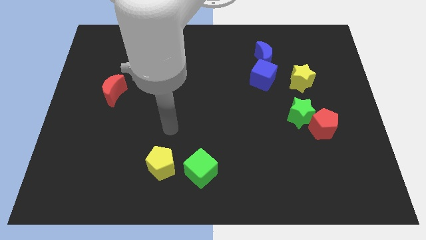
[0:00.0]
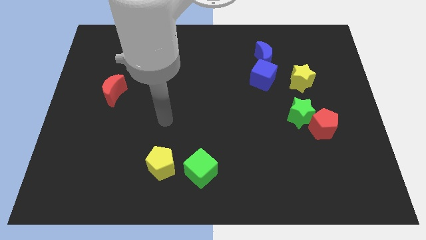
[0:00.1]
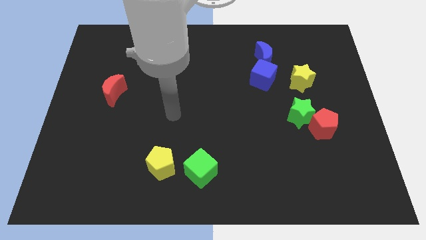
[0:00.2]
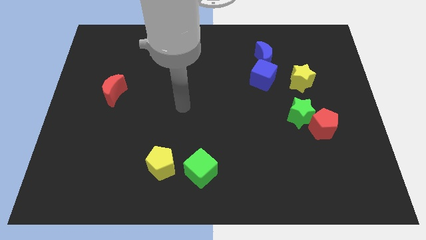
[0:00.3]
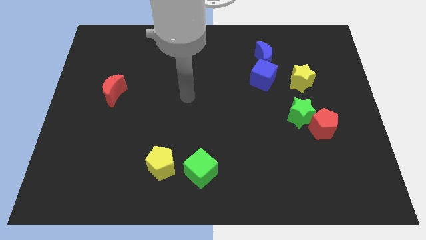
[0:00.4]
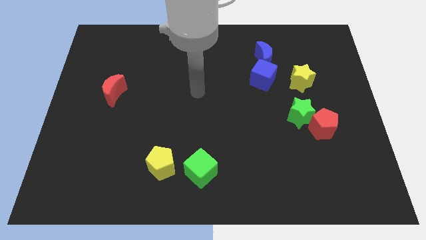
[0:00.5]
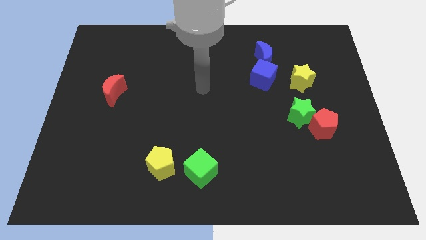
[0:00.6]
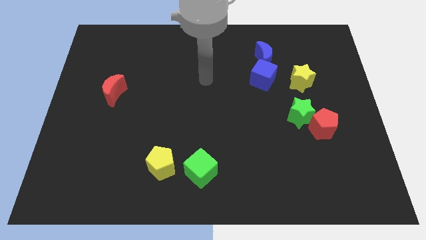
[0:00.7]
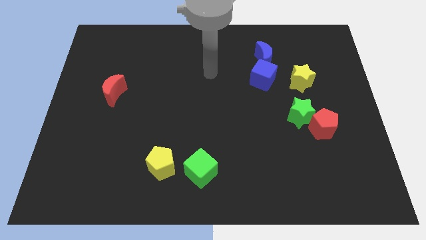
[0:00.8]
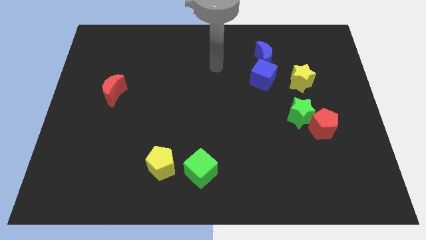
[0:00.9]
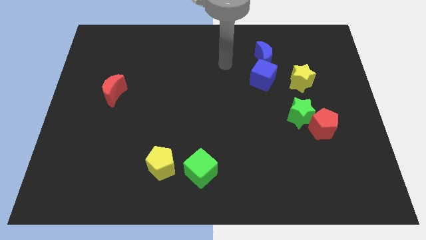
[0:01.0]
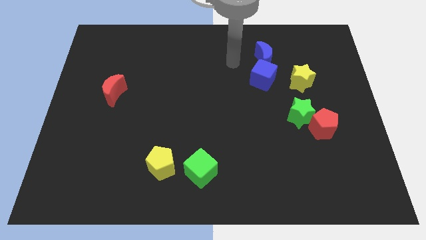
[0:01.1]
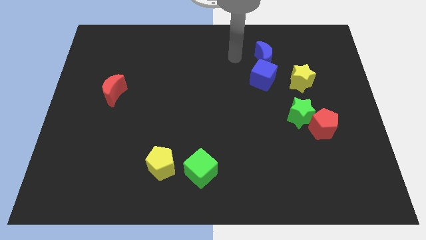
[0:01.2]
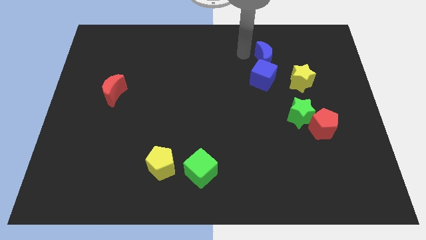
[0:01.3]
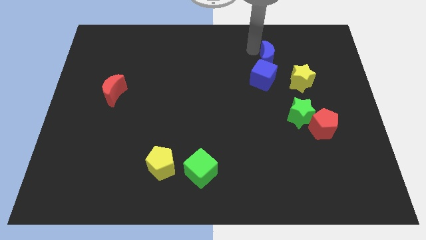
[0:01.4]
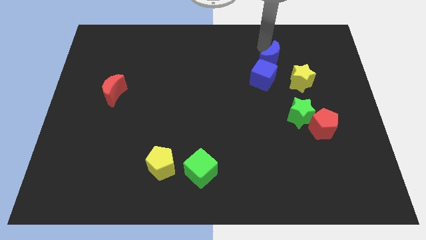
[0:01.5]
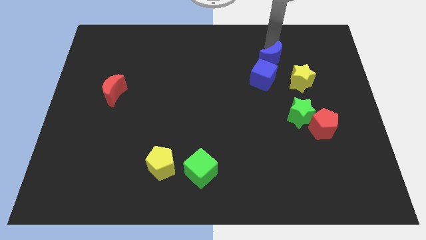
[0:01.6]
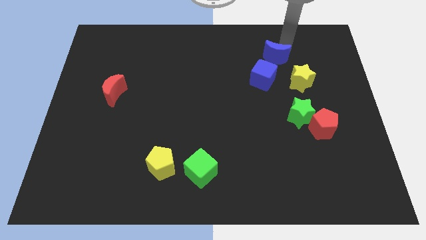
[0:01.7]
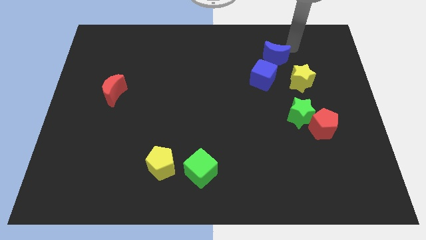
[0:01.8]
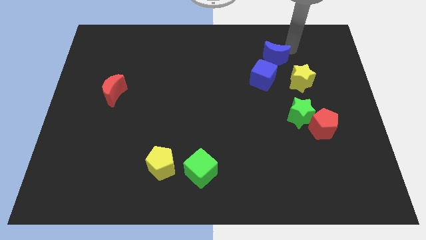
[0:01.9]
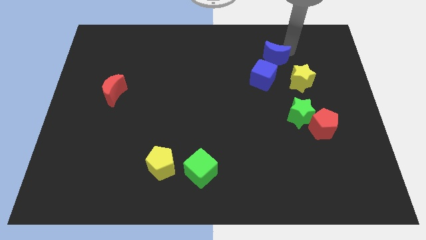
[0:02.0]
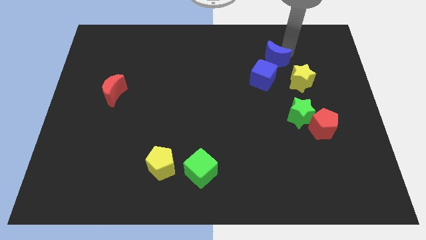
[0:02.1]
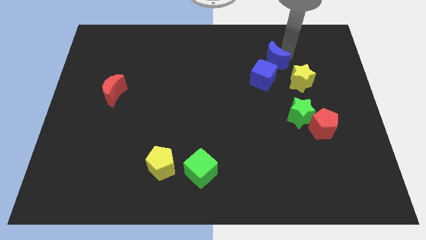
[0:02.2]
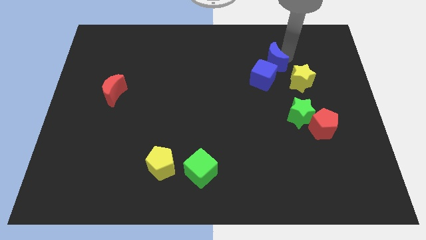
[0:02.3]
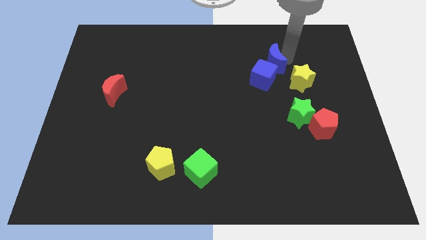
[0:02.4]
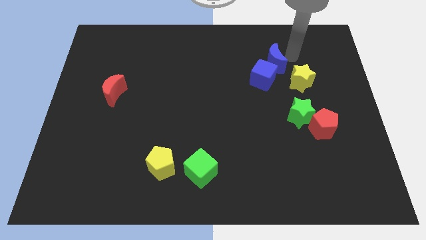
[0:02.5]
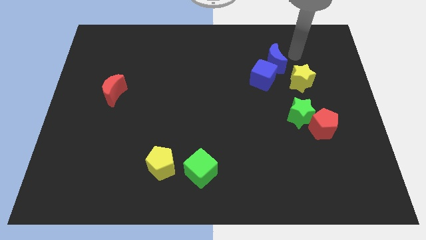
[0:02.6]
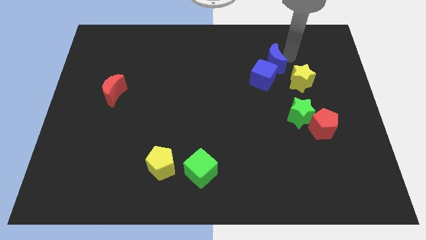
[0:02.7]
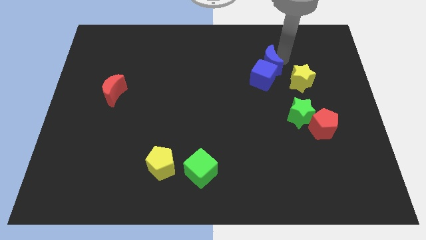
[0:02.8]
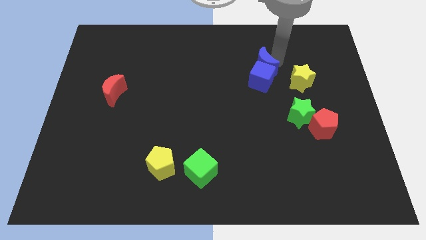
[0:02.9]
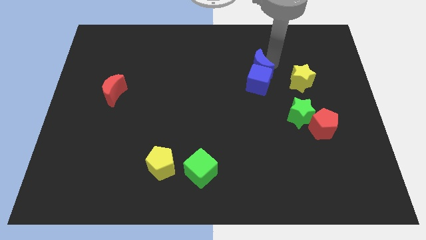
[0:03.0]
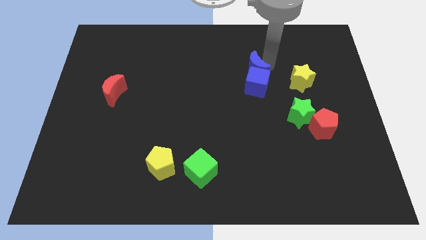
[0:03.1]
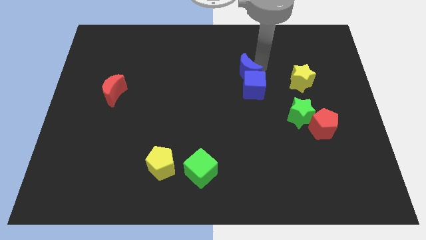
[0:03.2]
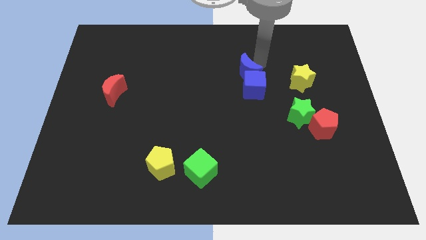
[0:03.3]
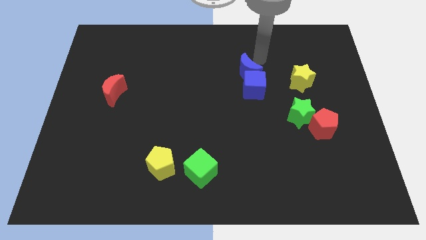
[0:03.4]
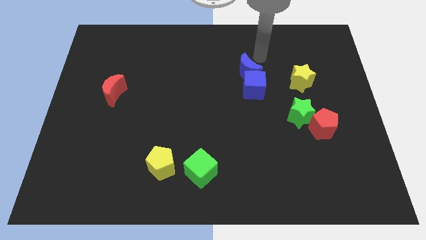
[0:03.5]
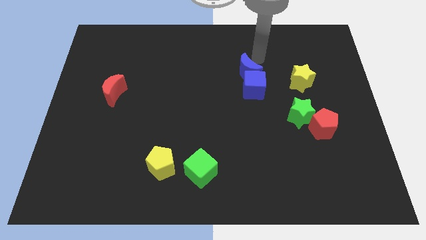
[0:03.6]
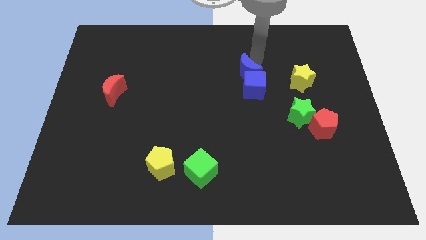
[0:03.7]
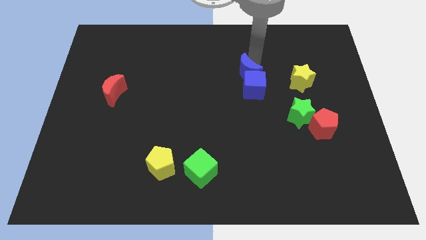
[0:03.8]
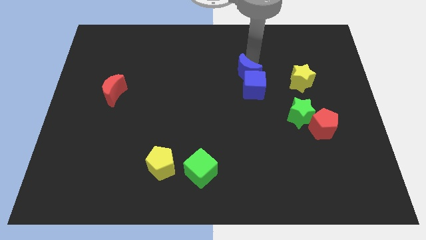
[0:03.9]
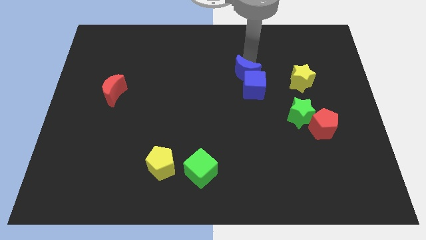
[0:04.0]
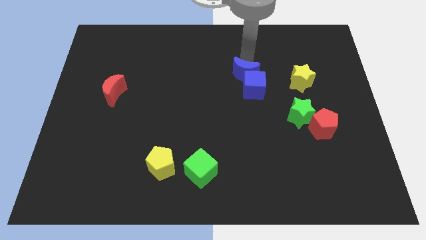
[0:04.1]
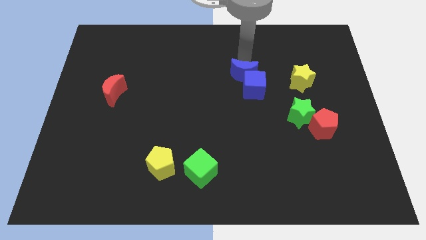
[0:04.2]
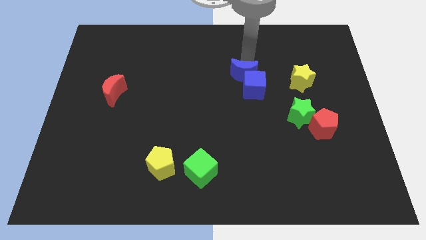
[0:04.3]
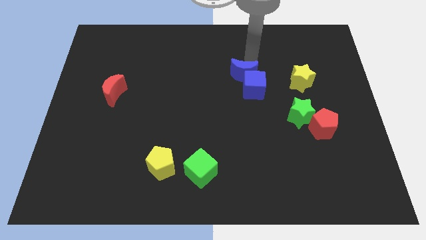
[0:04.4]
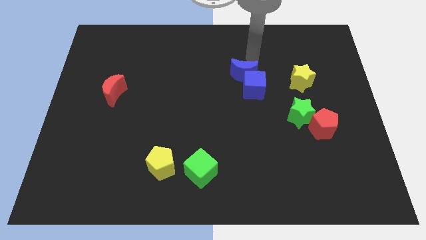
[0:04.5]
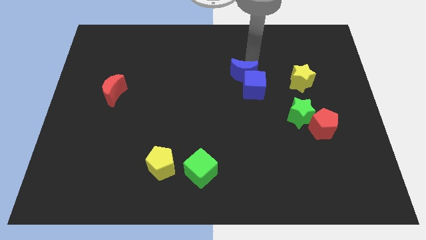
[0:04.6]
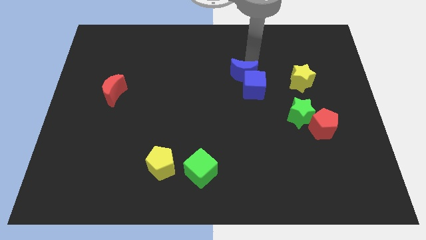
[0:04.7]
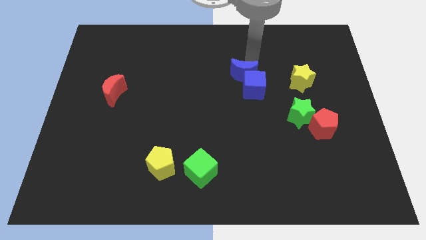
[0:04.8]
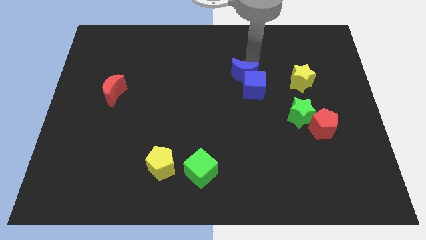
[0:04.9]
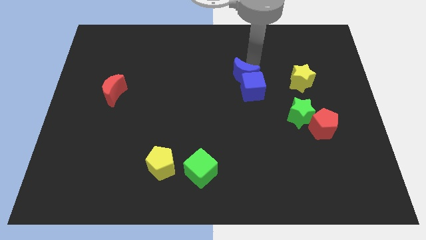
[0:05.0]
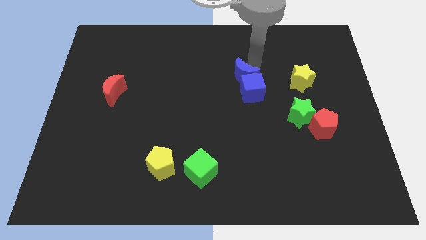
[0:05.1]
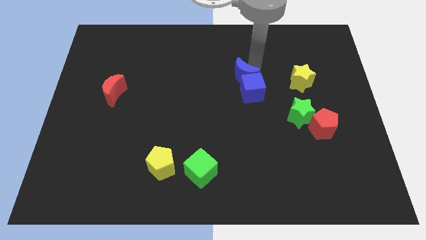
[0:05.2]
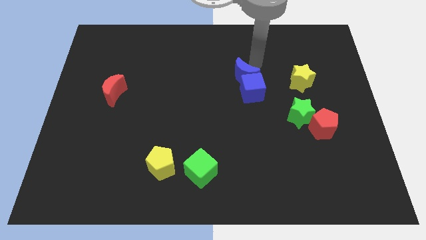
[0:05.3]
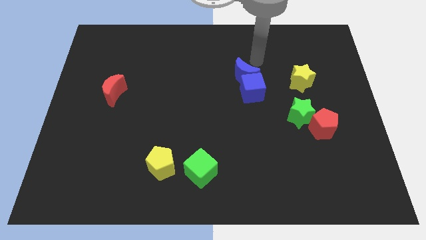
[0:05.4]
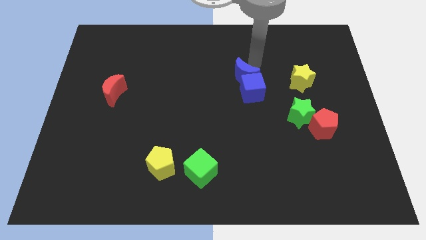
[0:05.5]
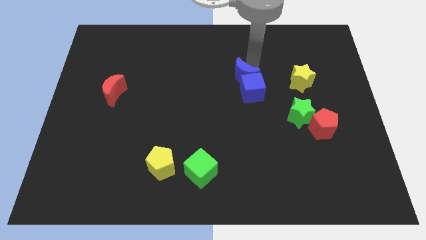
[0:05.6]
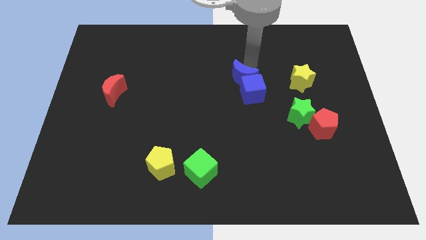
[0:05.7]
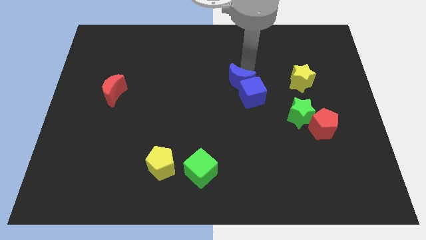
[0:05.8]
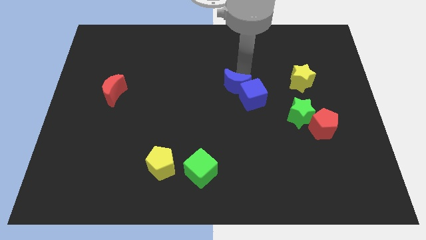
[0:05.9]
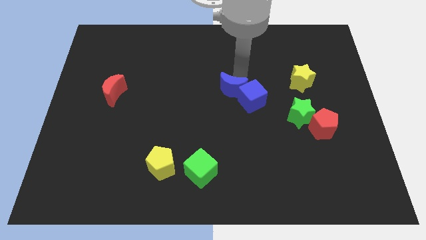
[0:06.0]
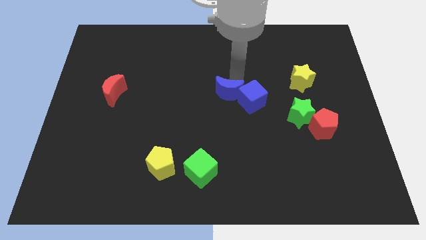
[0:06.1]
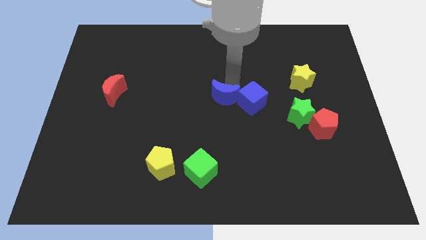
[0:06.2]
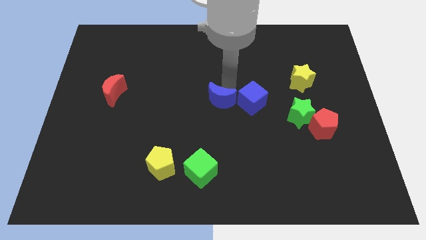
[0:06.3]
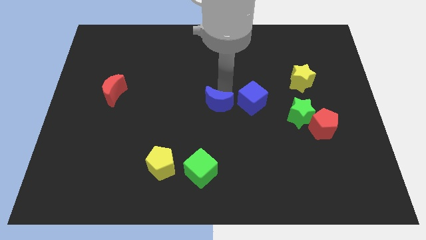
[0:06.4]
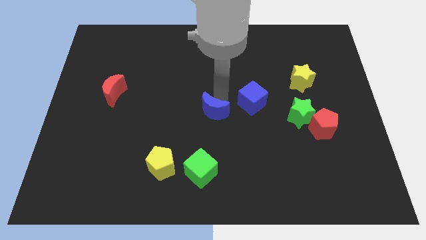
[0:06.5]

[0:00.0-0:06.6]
slide the blue moon to the top of the green cube

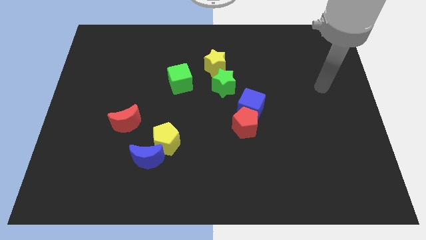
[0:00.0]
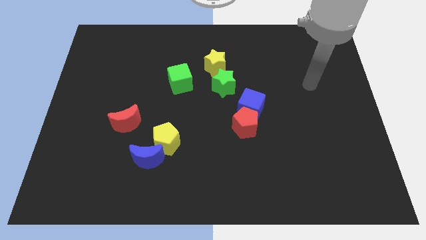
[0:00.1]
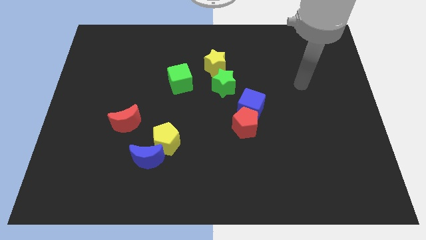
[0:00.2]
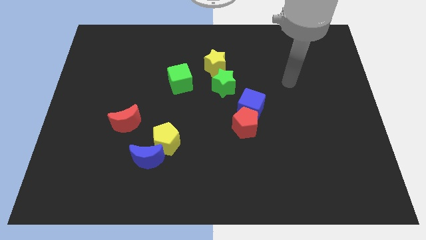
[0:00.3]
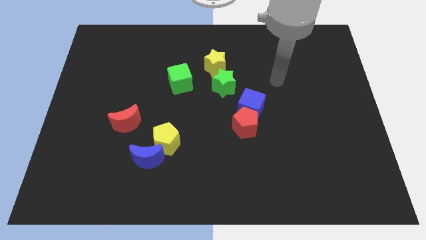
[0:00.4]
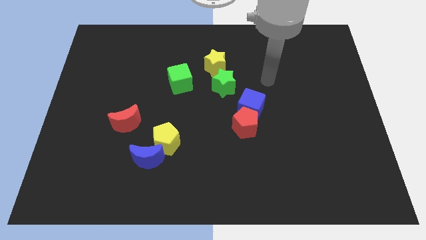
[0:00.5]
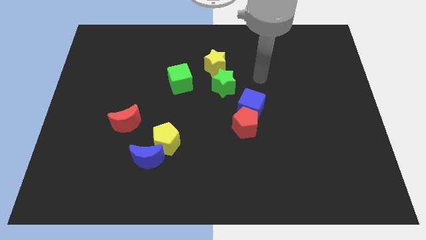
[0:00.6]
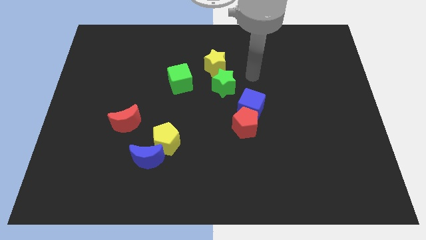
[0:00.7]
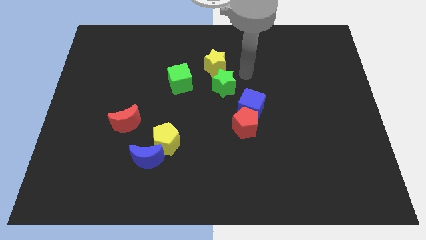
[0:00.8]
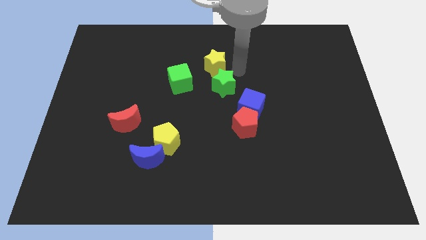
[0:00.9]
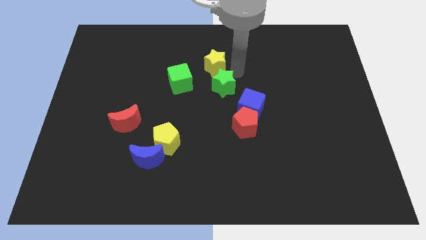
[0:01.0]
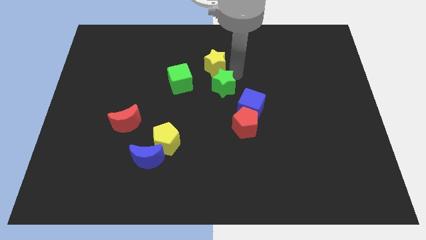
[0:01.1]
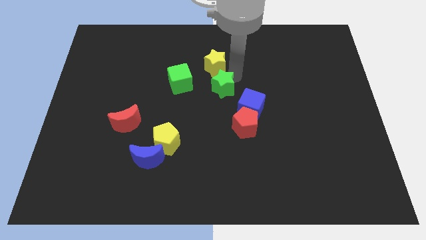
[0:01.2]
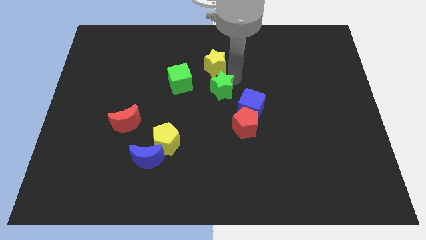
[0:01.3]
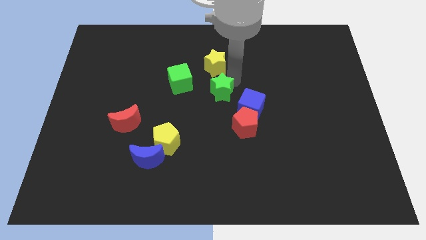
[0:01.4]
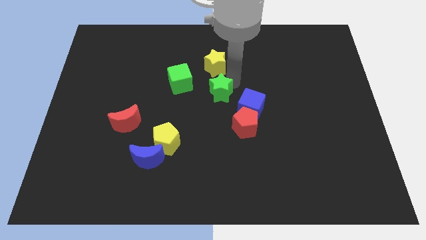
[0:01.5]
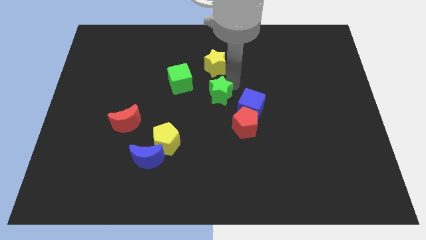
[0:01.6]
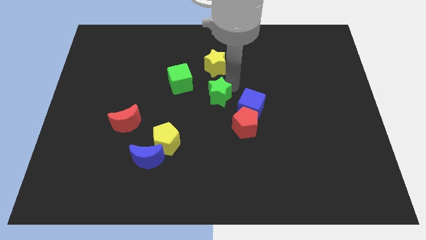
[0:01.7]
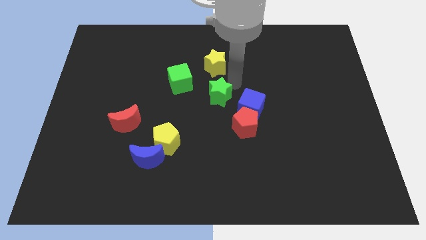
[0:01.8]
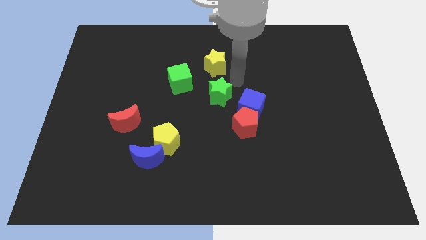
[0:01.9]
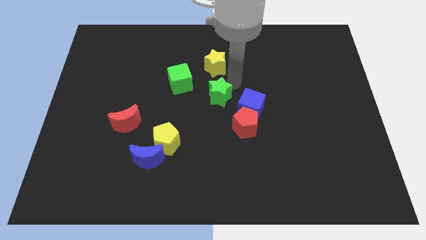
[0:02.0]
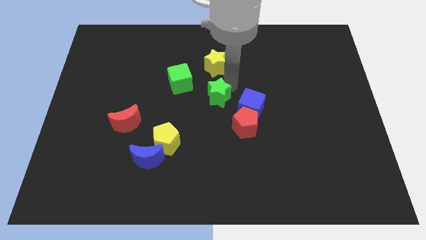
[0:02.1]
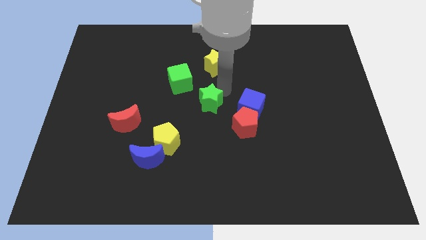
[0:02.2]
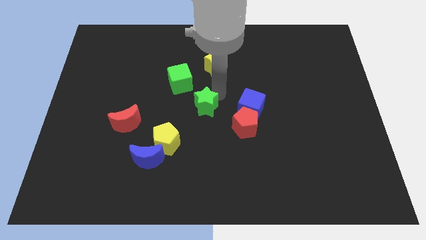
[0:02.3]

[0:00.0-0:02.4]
push the green star to the top right side of the yellow pentagon
